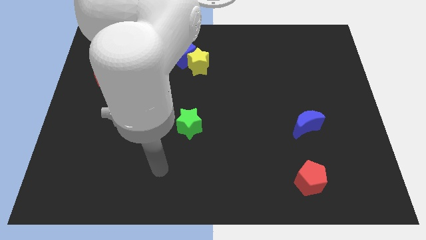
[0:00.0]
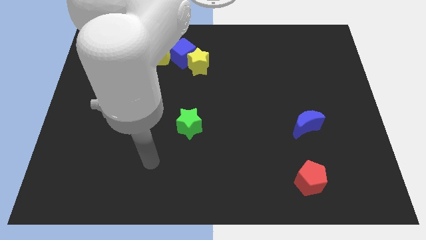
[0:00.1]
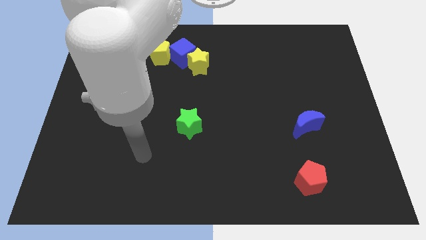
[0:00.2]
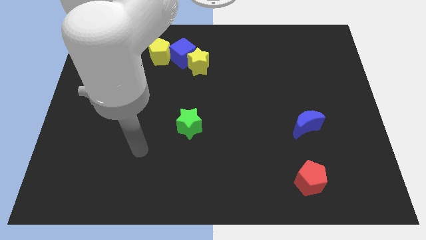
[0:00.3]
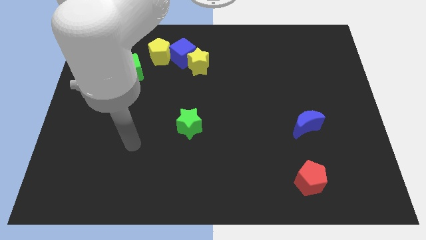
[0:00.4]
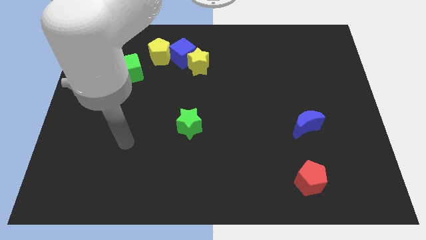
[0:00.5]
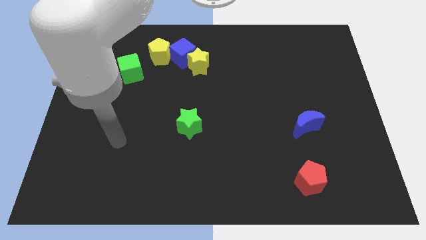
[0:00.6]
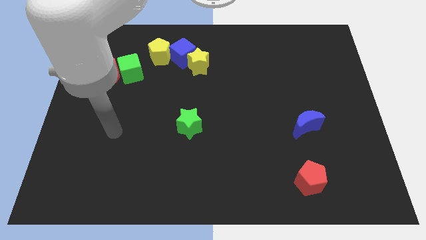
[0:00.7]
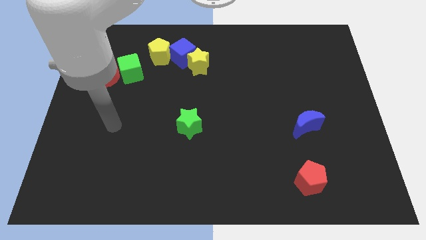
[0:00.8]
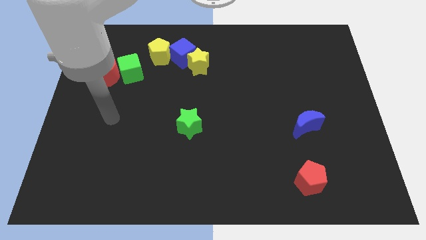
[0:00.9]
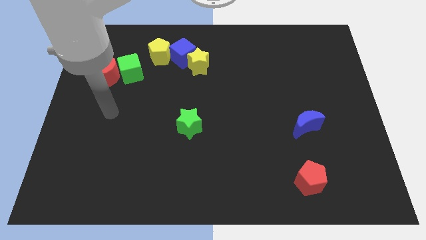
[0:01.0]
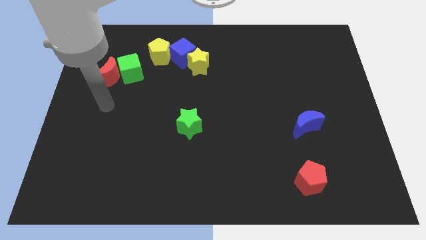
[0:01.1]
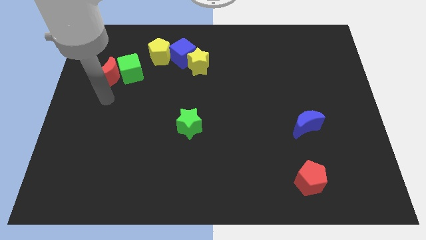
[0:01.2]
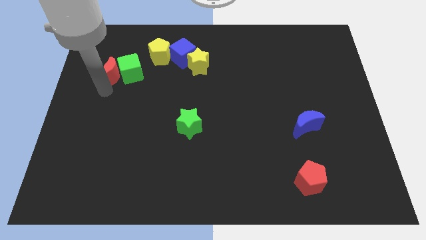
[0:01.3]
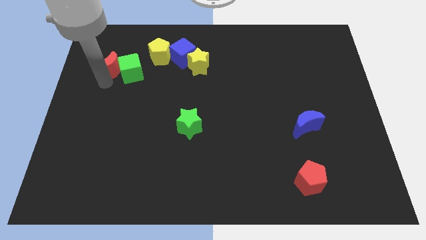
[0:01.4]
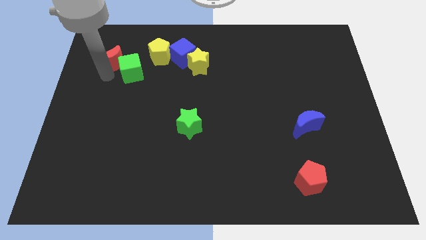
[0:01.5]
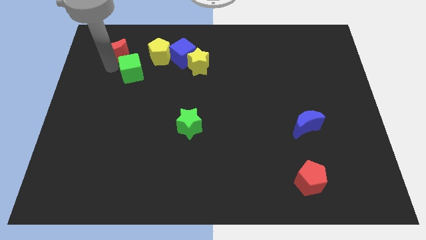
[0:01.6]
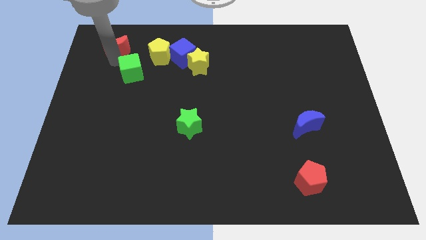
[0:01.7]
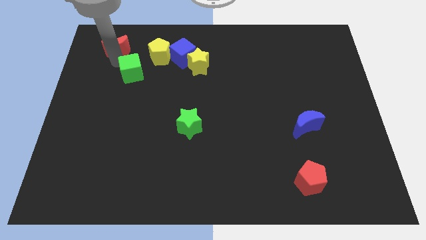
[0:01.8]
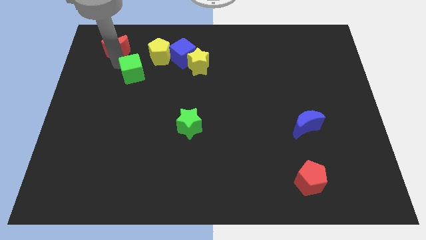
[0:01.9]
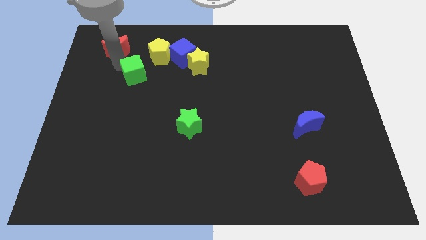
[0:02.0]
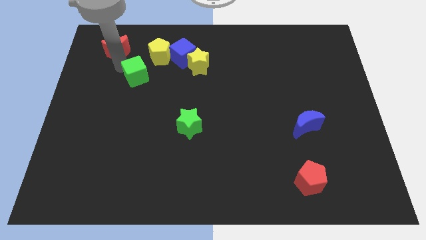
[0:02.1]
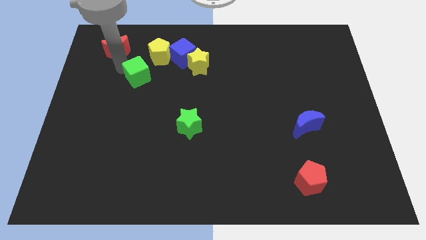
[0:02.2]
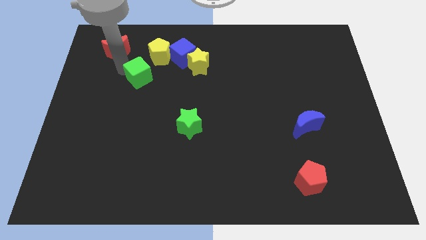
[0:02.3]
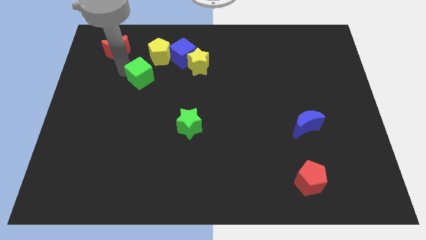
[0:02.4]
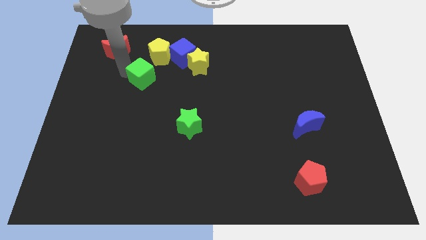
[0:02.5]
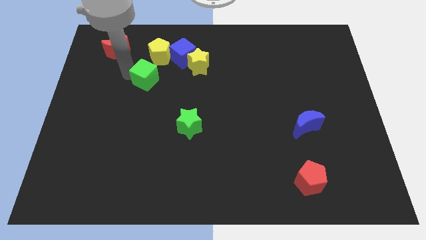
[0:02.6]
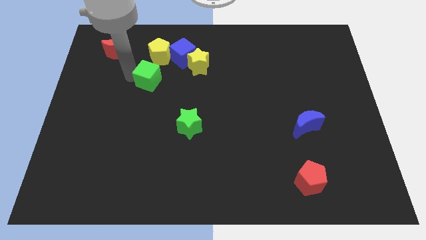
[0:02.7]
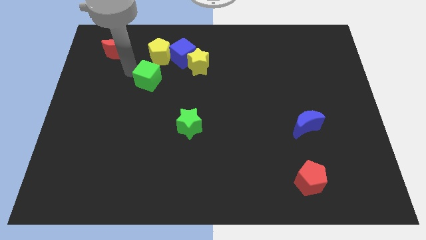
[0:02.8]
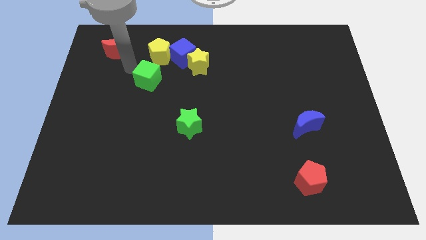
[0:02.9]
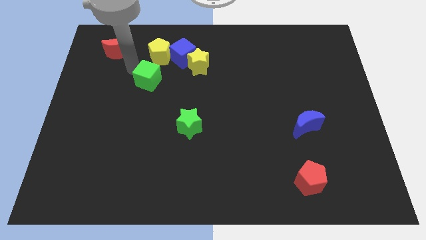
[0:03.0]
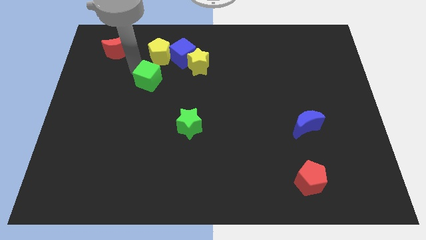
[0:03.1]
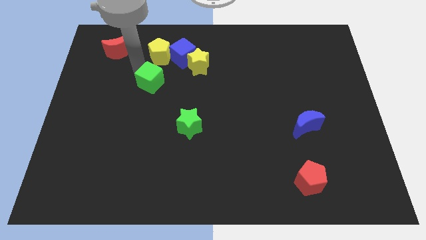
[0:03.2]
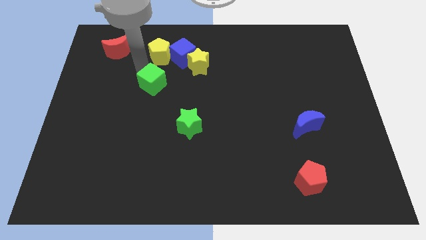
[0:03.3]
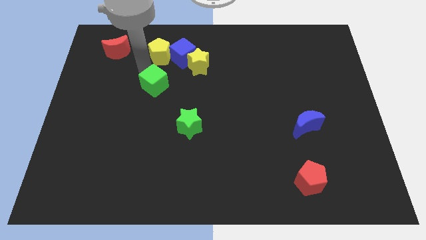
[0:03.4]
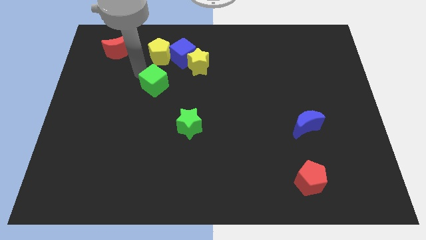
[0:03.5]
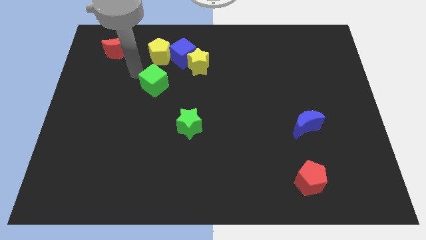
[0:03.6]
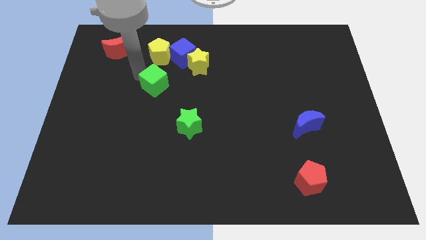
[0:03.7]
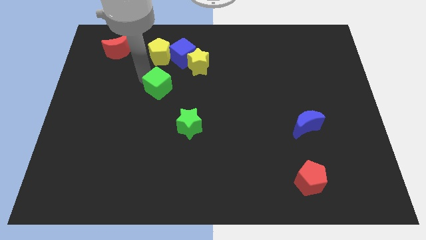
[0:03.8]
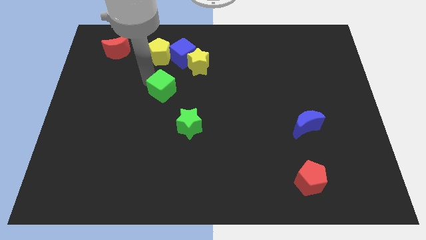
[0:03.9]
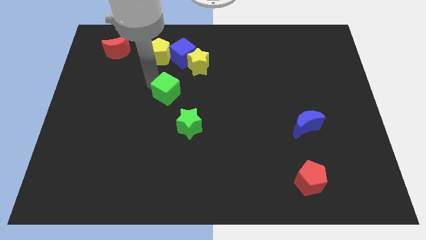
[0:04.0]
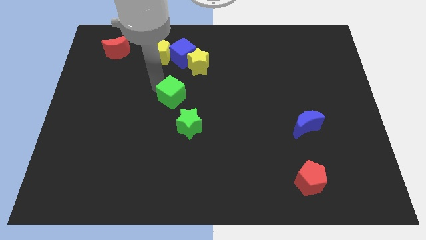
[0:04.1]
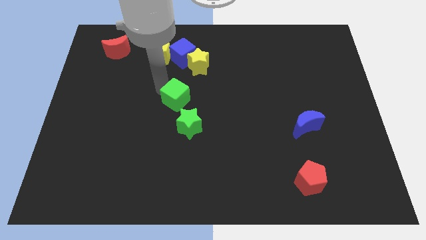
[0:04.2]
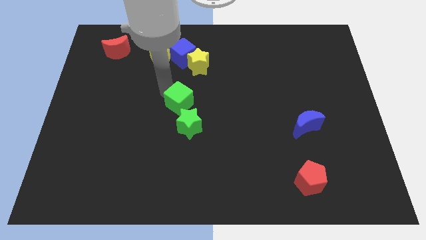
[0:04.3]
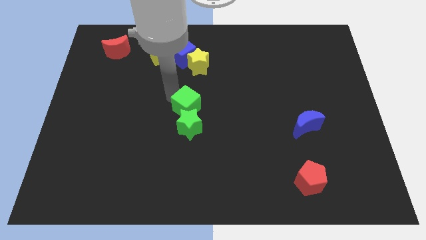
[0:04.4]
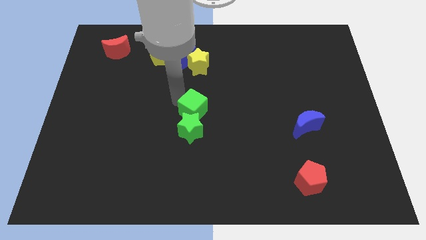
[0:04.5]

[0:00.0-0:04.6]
push the green cube downwards and to the right

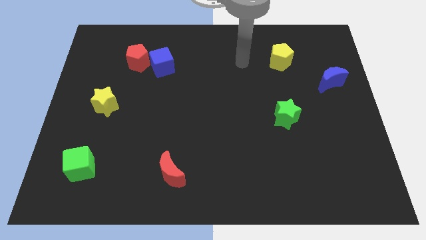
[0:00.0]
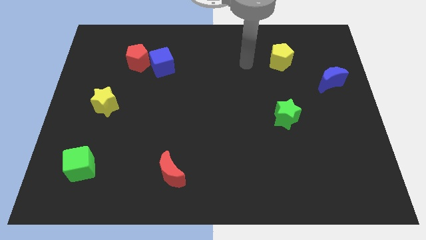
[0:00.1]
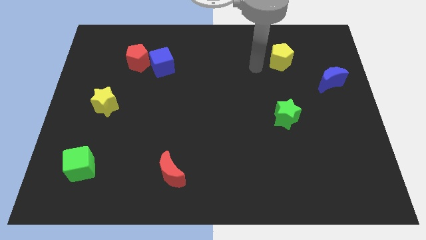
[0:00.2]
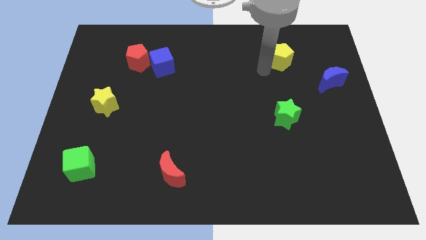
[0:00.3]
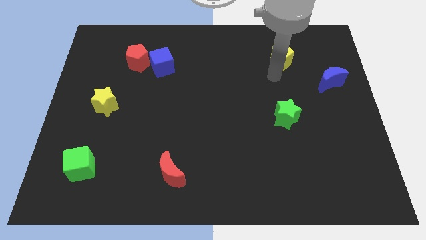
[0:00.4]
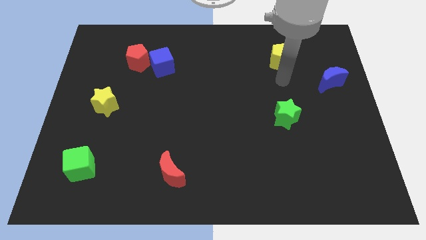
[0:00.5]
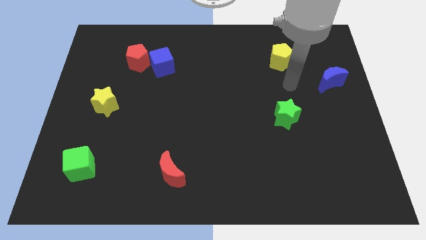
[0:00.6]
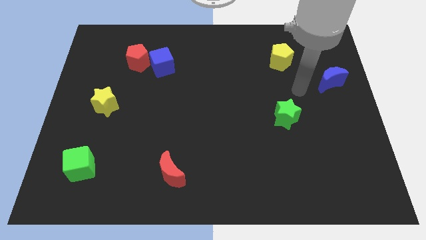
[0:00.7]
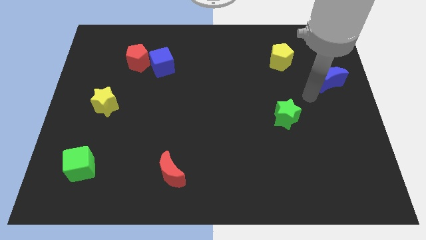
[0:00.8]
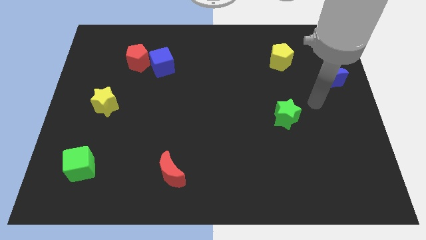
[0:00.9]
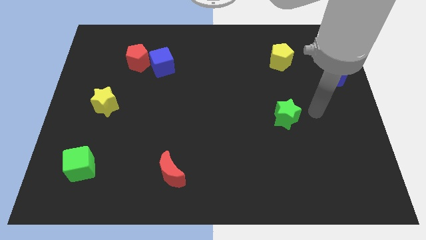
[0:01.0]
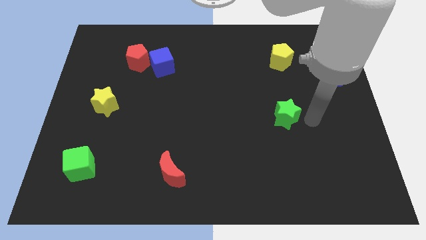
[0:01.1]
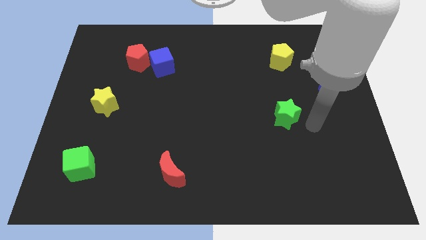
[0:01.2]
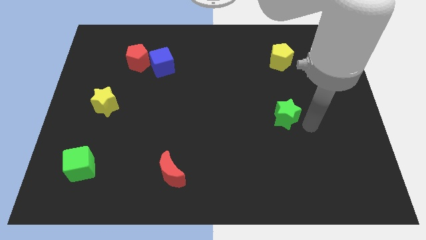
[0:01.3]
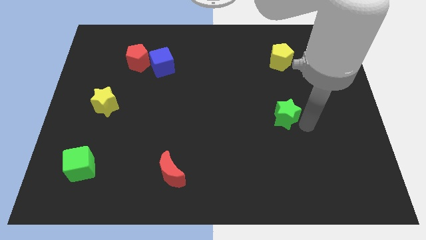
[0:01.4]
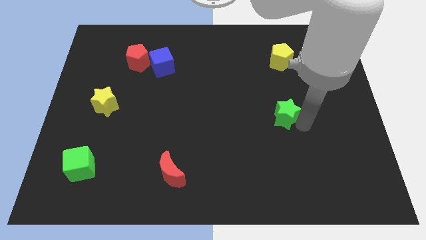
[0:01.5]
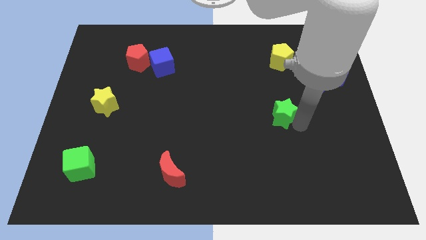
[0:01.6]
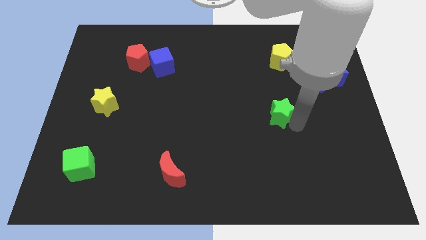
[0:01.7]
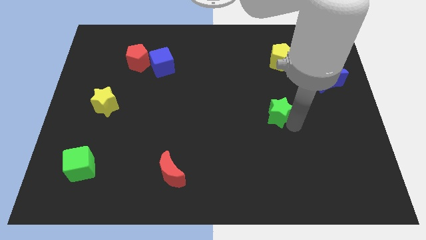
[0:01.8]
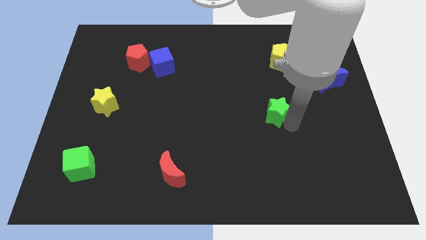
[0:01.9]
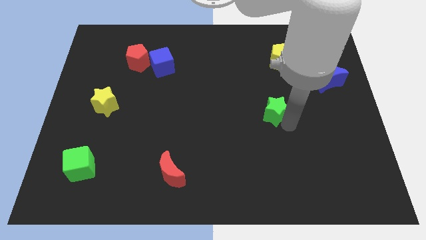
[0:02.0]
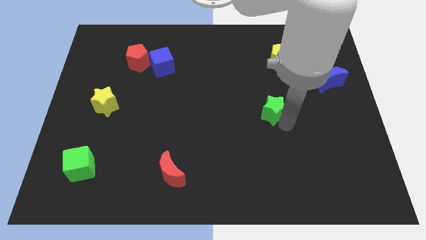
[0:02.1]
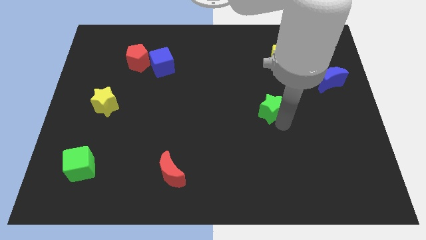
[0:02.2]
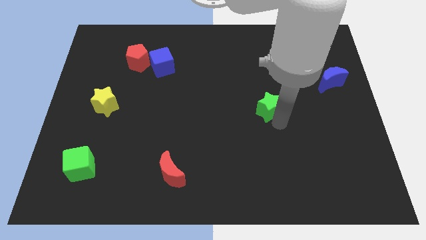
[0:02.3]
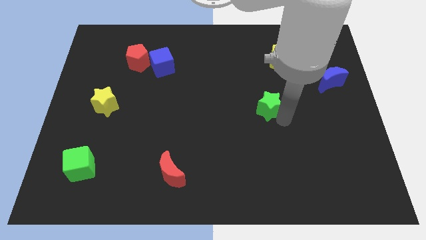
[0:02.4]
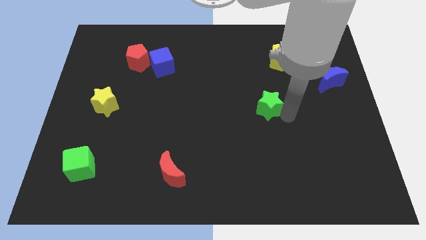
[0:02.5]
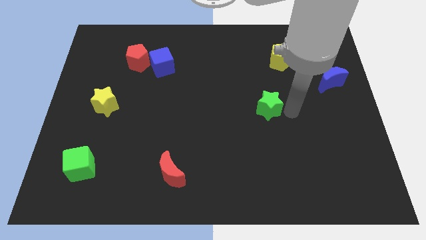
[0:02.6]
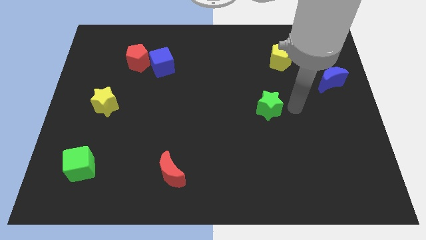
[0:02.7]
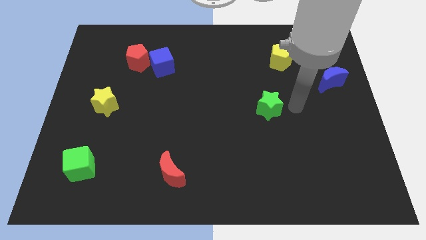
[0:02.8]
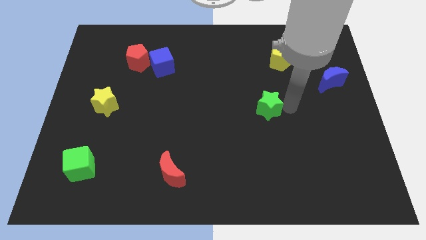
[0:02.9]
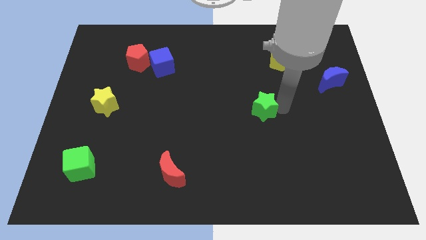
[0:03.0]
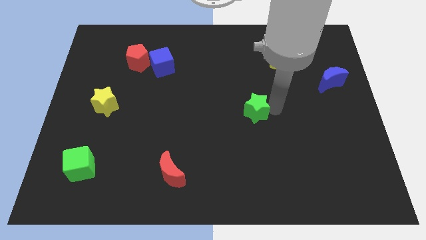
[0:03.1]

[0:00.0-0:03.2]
push the green star to the left a bit
